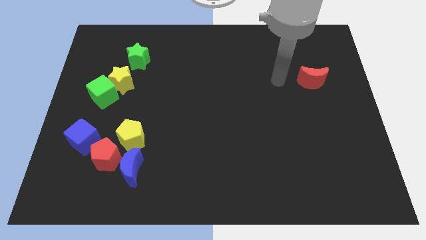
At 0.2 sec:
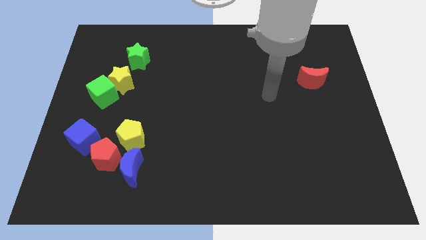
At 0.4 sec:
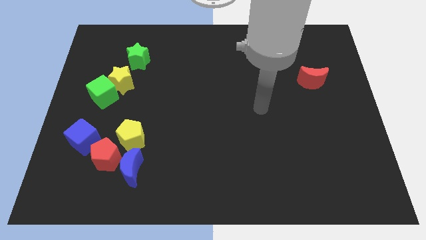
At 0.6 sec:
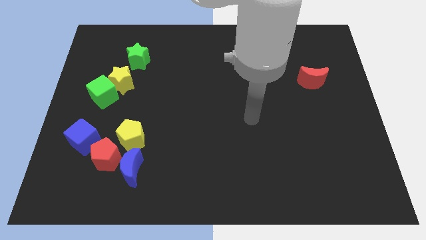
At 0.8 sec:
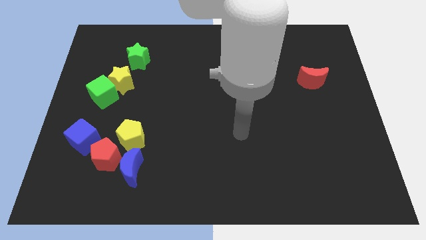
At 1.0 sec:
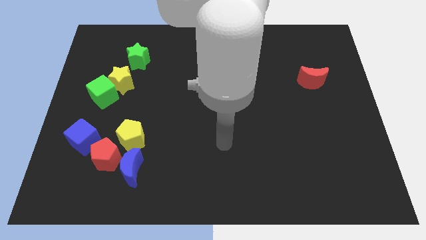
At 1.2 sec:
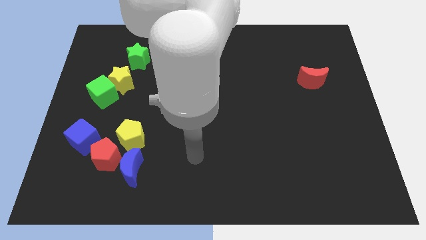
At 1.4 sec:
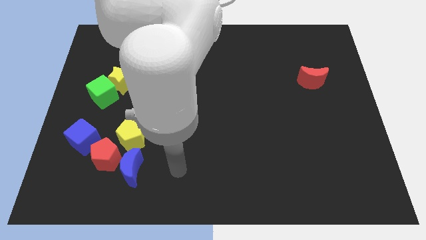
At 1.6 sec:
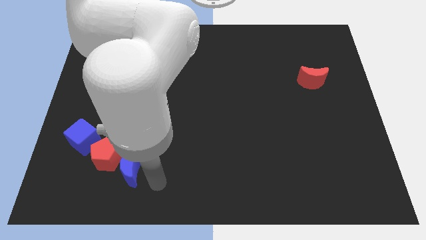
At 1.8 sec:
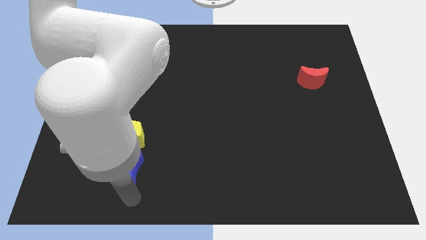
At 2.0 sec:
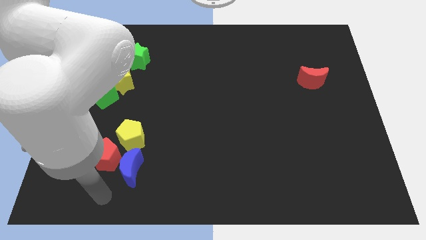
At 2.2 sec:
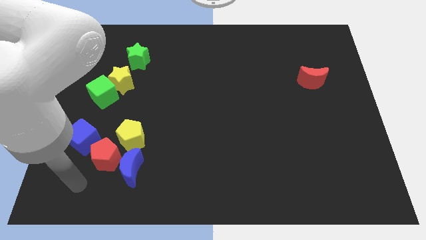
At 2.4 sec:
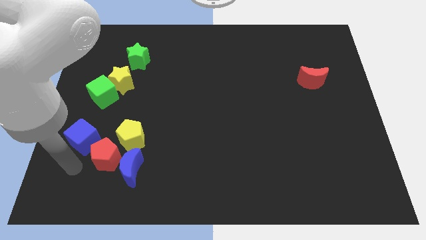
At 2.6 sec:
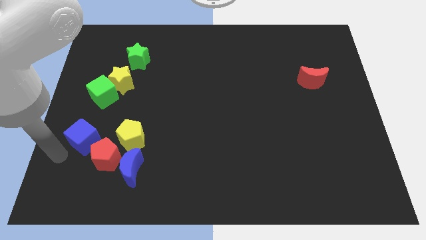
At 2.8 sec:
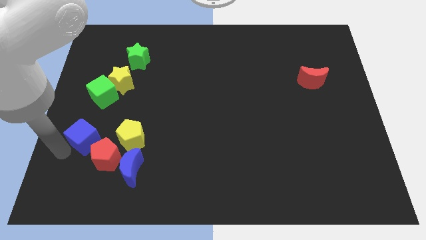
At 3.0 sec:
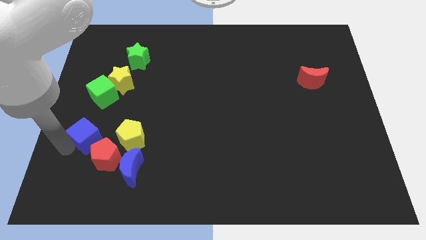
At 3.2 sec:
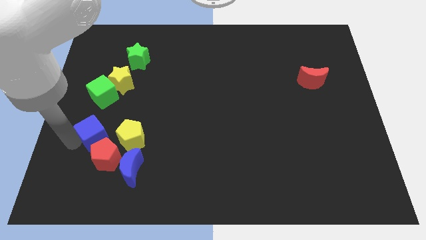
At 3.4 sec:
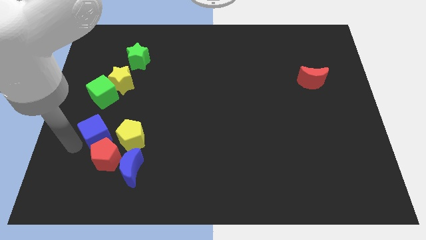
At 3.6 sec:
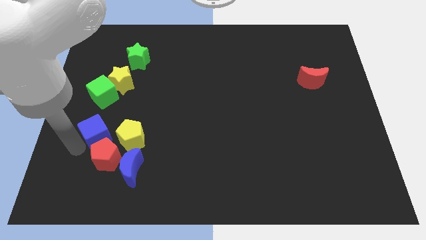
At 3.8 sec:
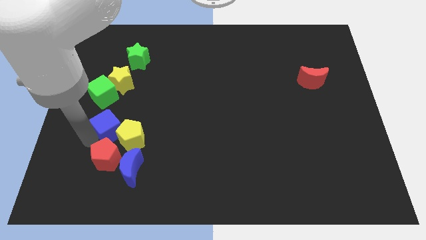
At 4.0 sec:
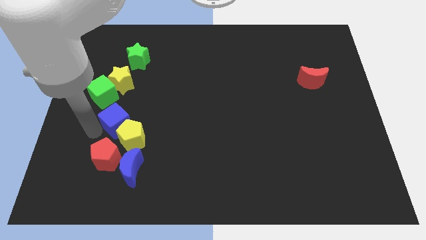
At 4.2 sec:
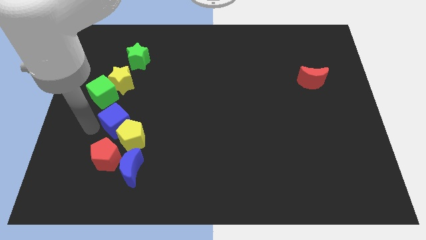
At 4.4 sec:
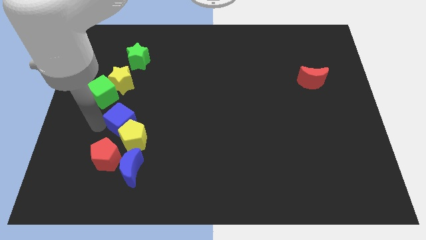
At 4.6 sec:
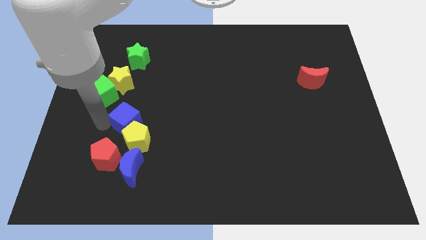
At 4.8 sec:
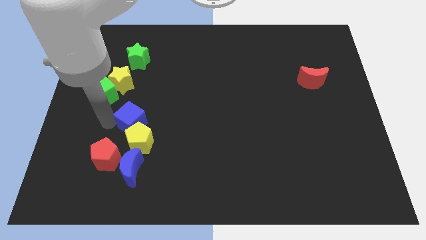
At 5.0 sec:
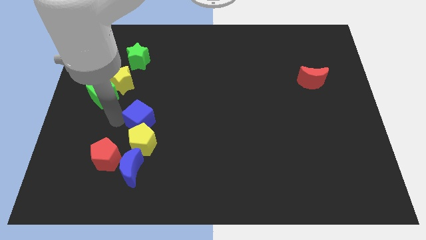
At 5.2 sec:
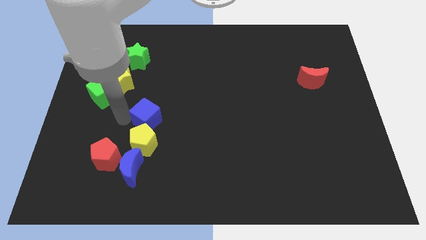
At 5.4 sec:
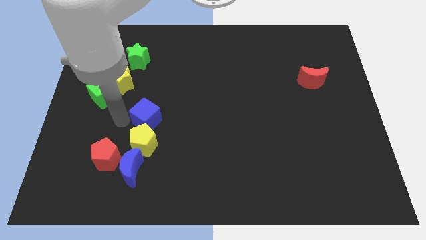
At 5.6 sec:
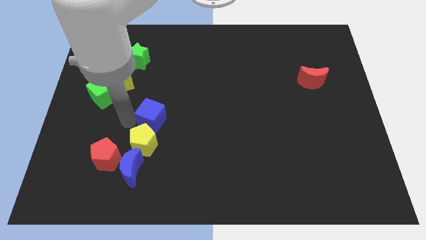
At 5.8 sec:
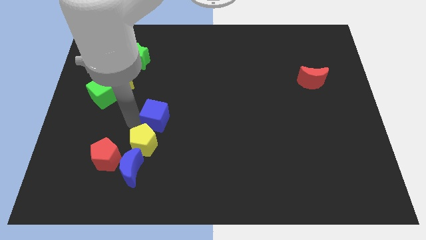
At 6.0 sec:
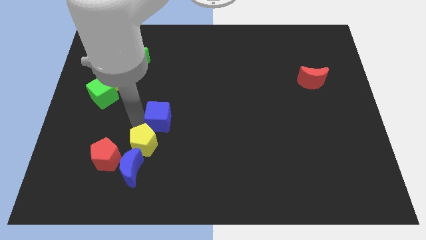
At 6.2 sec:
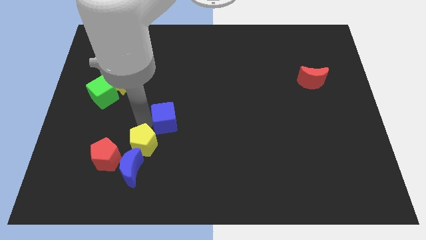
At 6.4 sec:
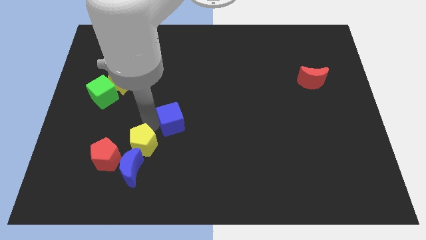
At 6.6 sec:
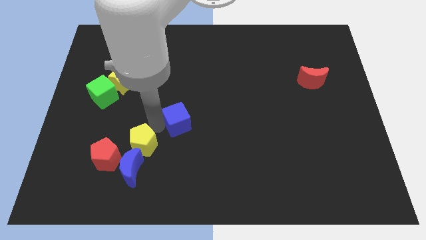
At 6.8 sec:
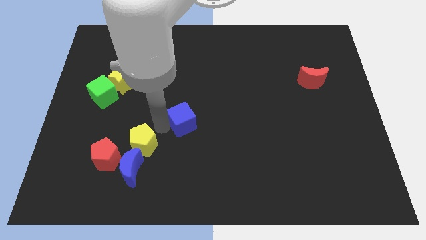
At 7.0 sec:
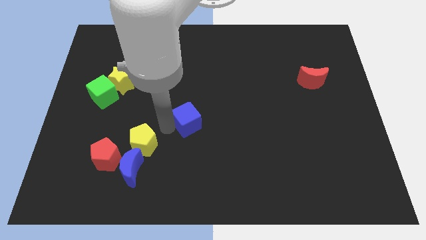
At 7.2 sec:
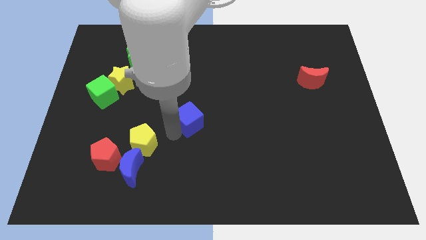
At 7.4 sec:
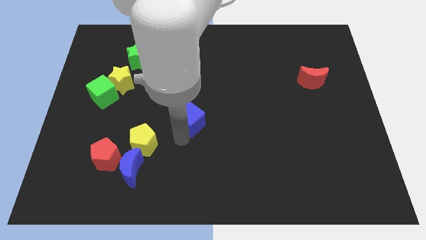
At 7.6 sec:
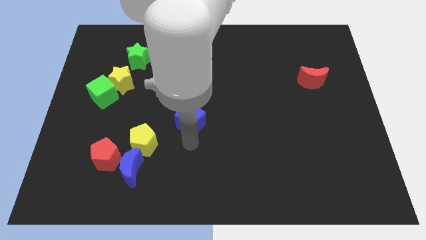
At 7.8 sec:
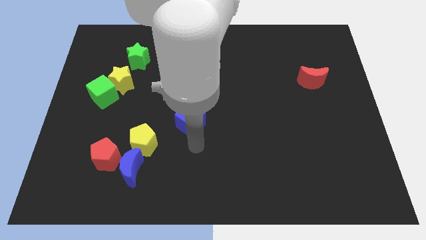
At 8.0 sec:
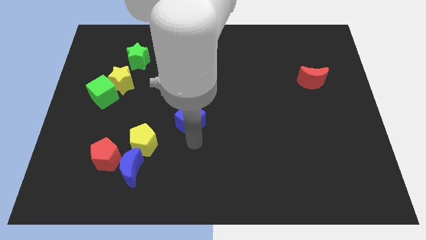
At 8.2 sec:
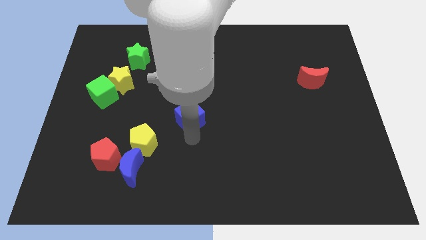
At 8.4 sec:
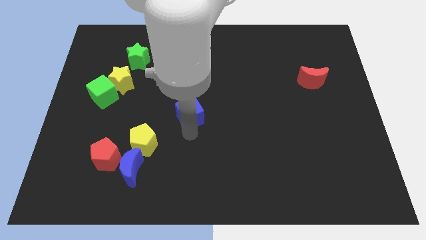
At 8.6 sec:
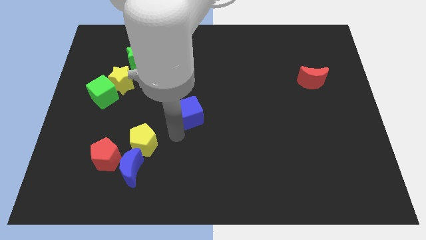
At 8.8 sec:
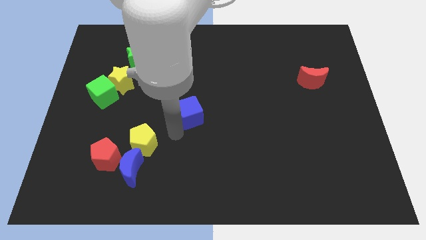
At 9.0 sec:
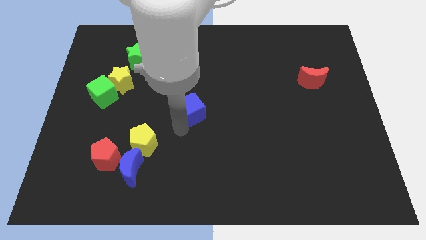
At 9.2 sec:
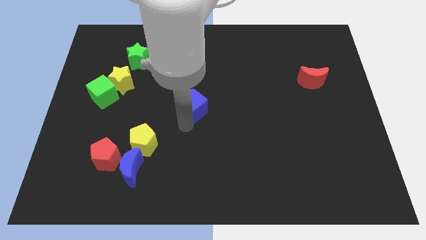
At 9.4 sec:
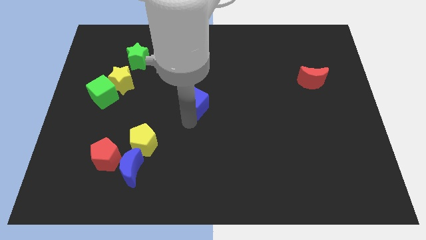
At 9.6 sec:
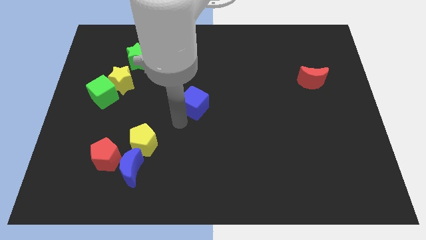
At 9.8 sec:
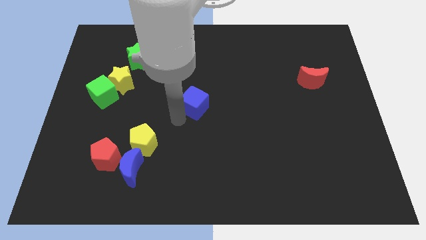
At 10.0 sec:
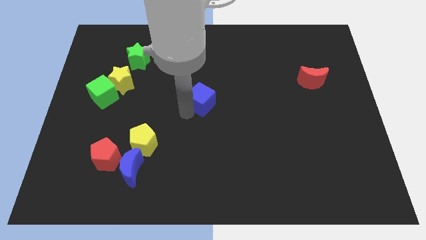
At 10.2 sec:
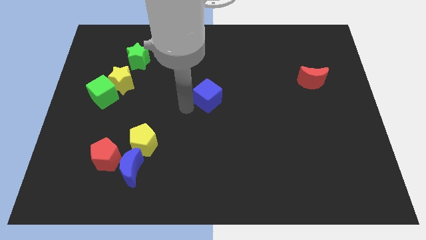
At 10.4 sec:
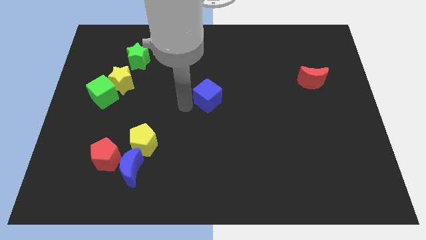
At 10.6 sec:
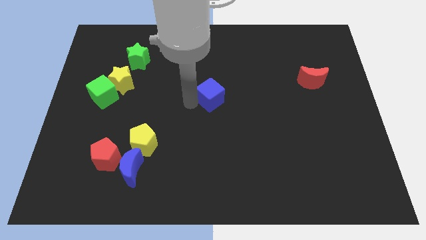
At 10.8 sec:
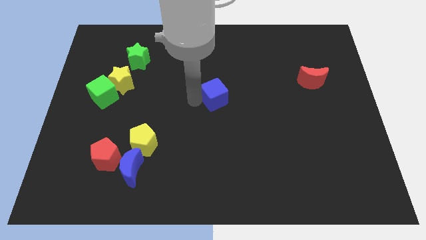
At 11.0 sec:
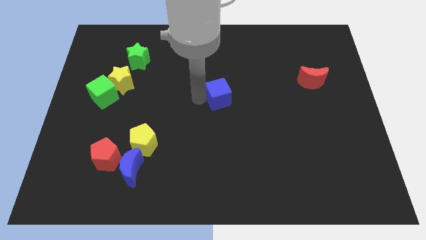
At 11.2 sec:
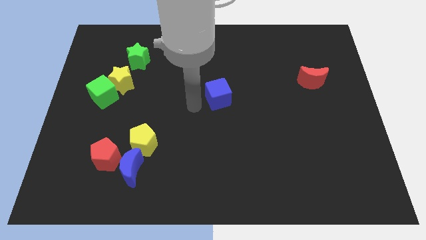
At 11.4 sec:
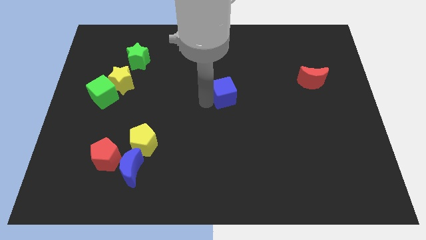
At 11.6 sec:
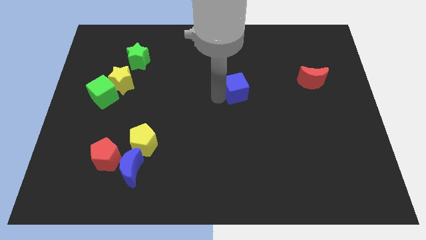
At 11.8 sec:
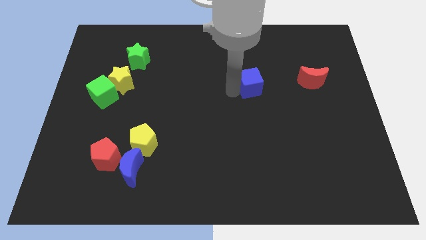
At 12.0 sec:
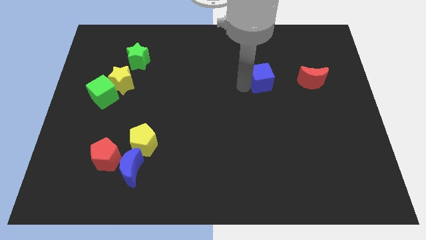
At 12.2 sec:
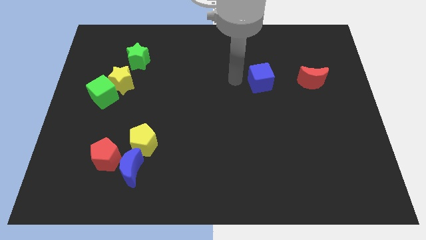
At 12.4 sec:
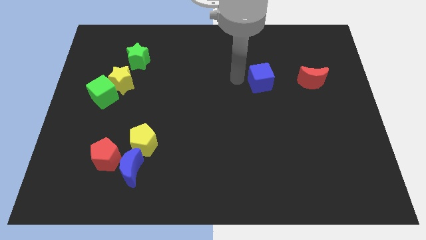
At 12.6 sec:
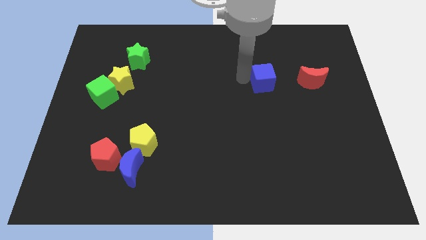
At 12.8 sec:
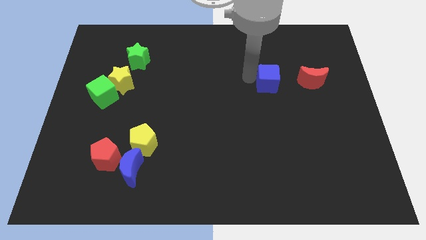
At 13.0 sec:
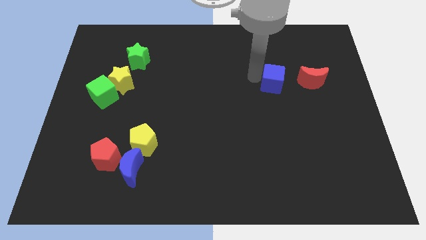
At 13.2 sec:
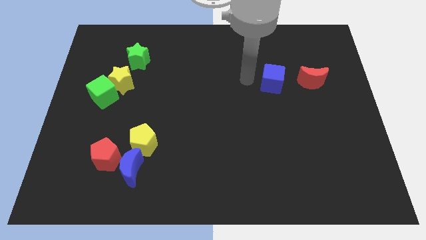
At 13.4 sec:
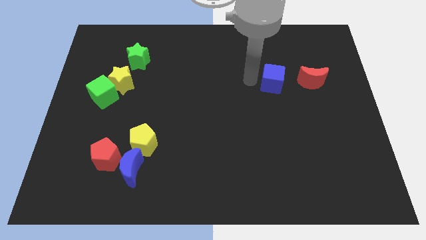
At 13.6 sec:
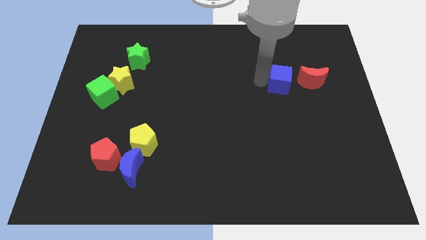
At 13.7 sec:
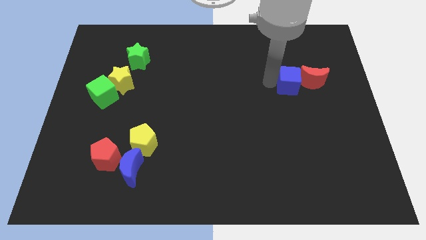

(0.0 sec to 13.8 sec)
put the blue cube close to the red moon
